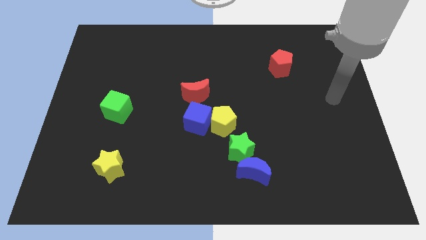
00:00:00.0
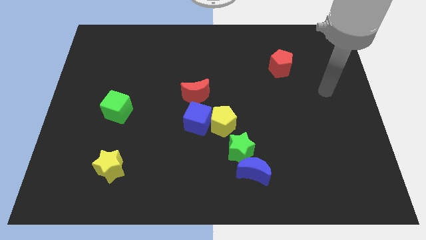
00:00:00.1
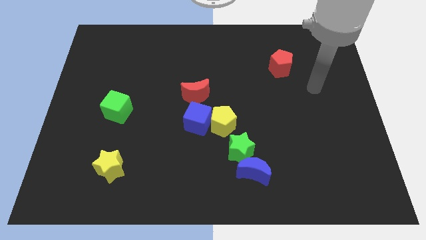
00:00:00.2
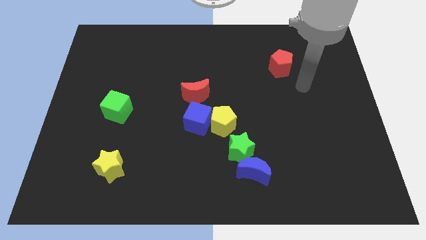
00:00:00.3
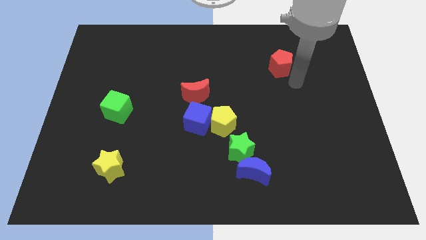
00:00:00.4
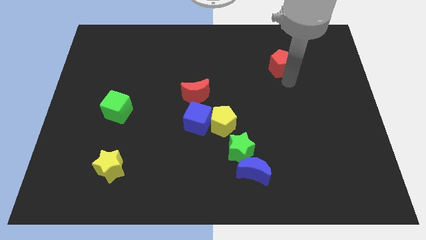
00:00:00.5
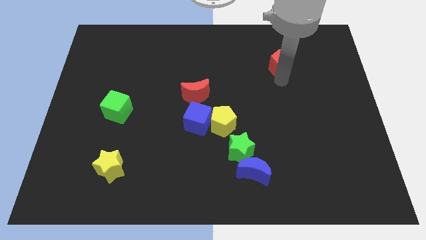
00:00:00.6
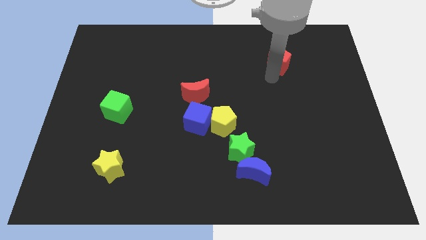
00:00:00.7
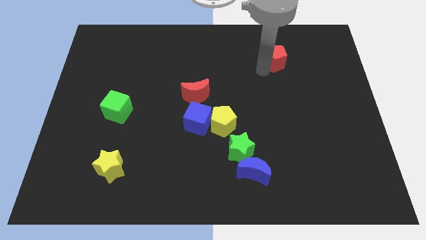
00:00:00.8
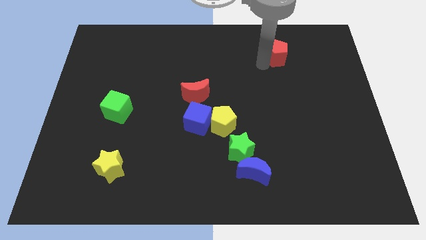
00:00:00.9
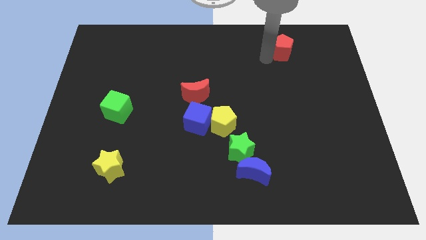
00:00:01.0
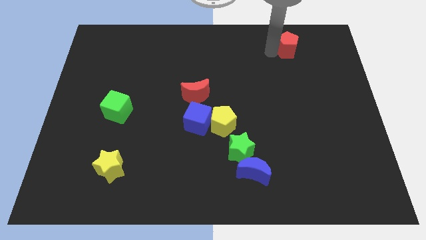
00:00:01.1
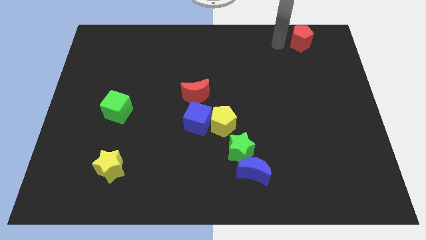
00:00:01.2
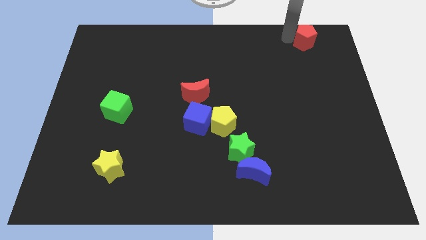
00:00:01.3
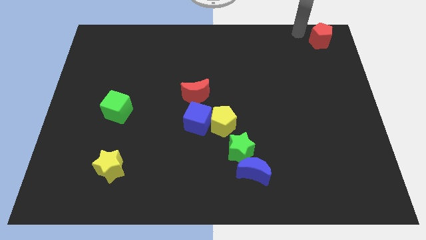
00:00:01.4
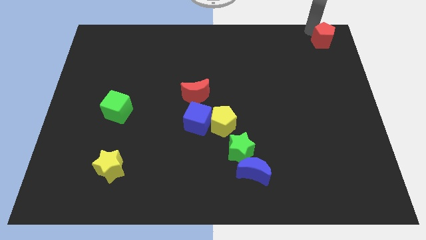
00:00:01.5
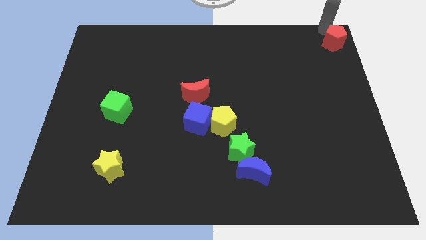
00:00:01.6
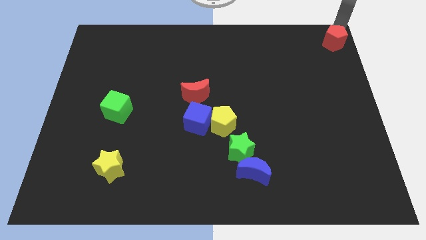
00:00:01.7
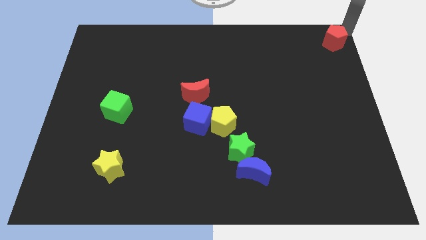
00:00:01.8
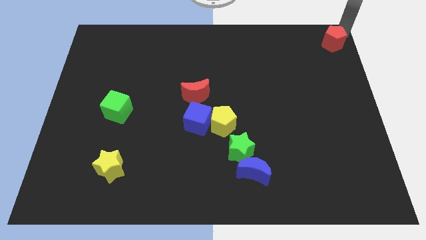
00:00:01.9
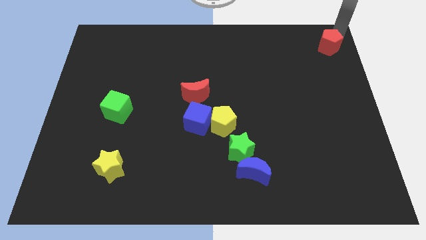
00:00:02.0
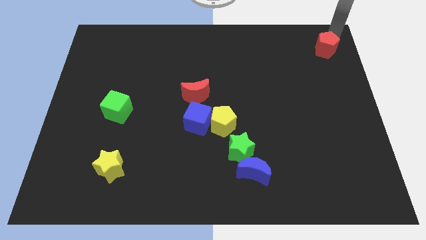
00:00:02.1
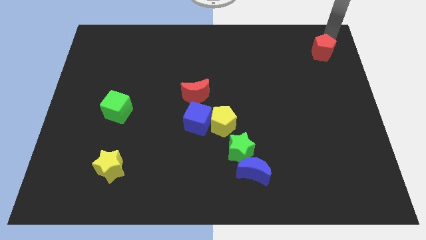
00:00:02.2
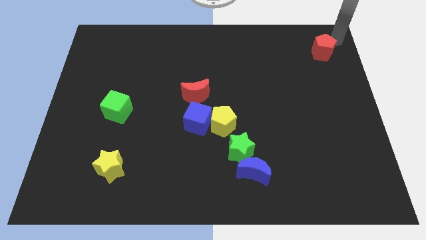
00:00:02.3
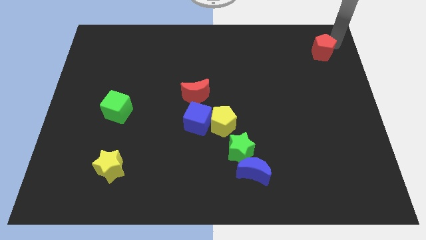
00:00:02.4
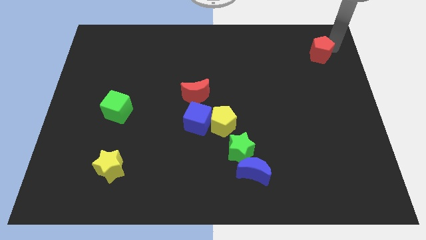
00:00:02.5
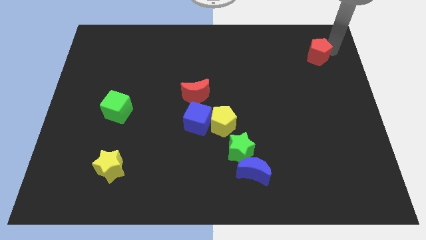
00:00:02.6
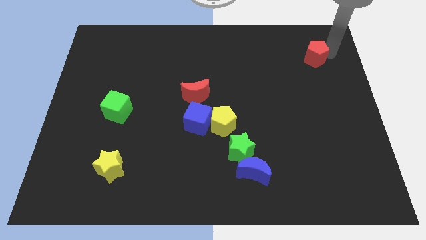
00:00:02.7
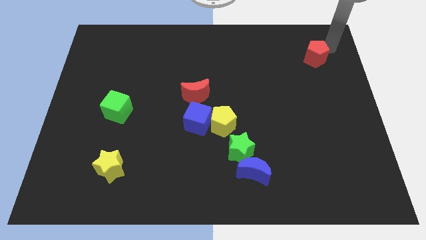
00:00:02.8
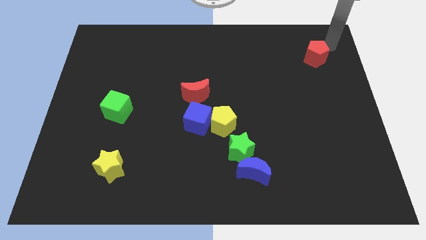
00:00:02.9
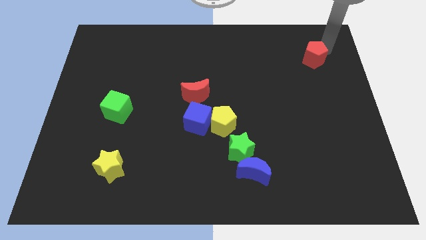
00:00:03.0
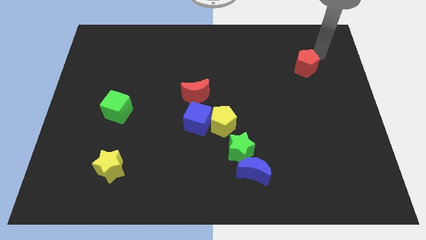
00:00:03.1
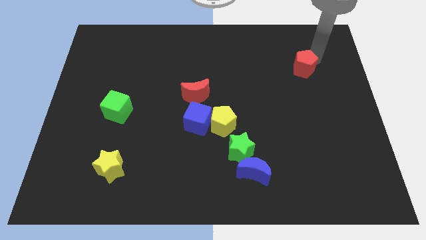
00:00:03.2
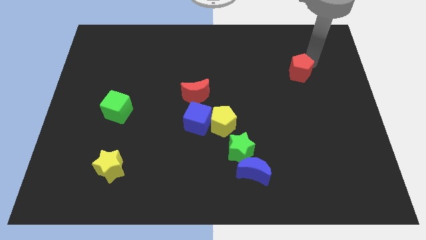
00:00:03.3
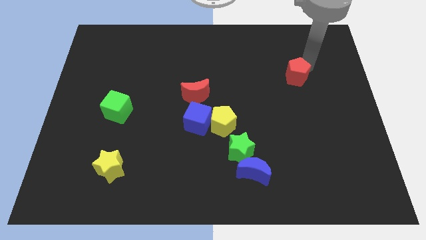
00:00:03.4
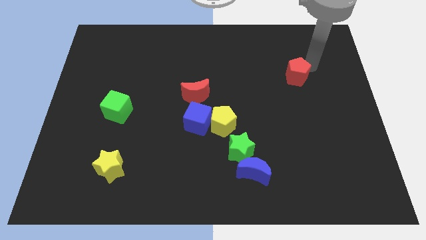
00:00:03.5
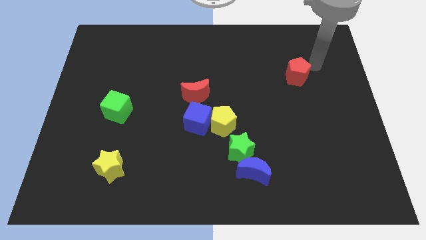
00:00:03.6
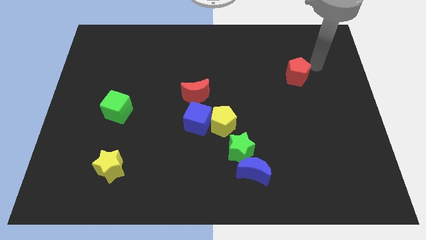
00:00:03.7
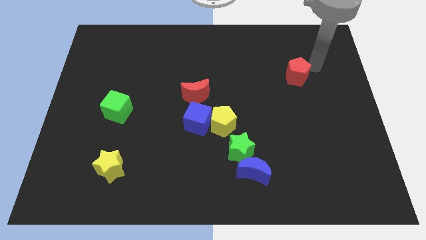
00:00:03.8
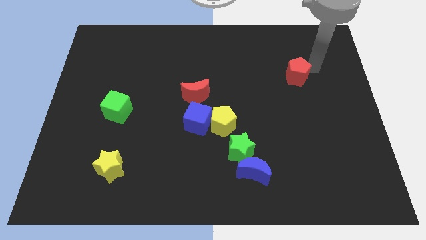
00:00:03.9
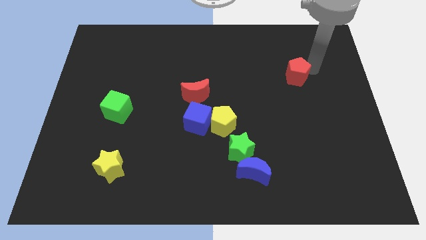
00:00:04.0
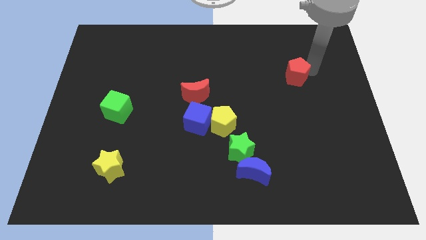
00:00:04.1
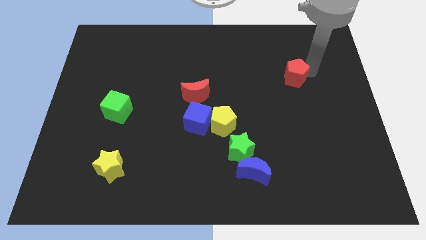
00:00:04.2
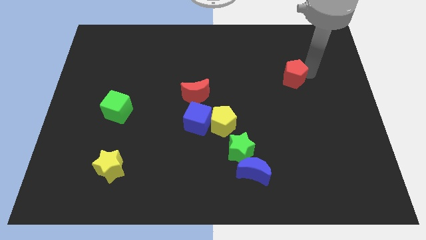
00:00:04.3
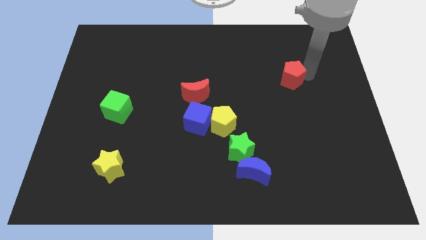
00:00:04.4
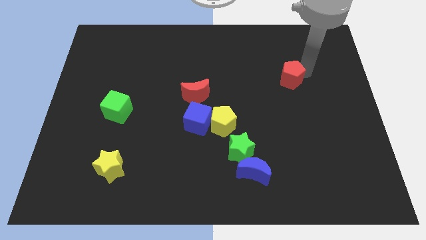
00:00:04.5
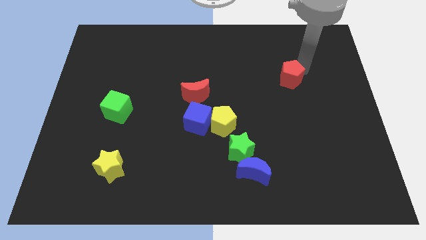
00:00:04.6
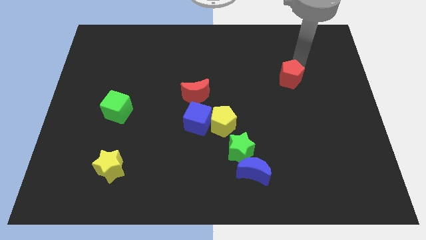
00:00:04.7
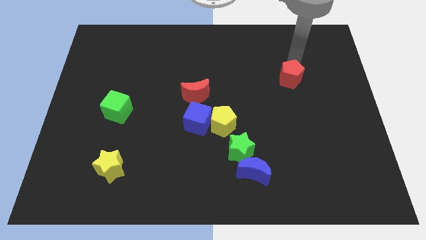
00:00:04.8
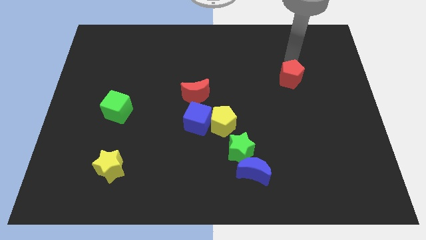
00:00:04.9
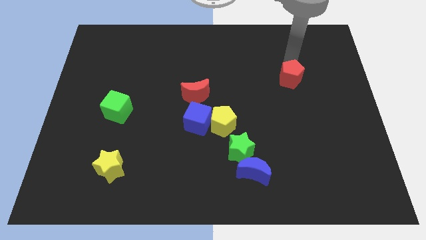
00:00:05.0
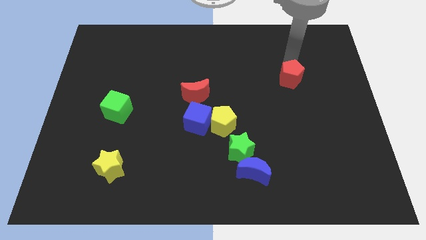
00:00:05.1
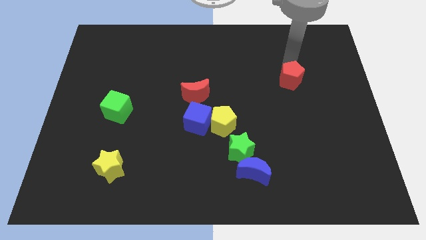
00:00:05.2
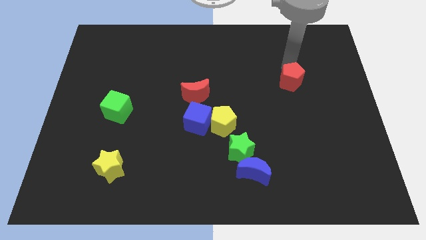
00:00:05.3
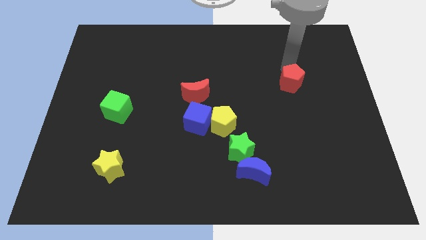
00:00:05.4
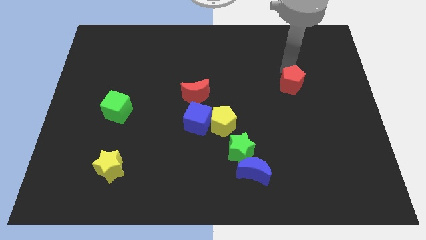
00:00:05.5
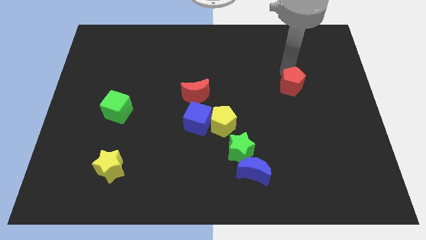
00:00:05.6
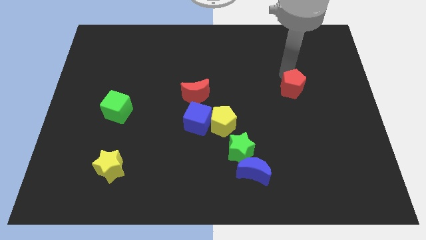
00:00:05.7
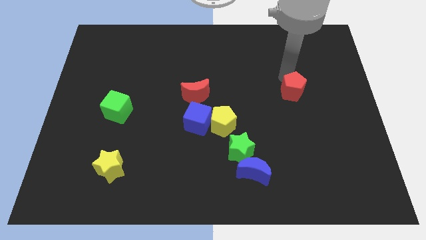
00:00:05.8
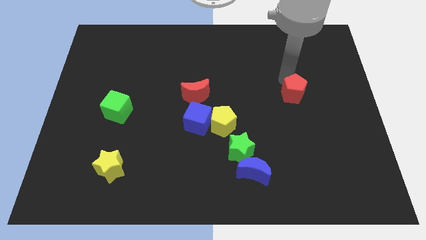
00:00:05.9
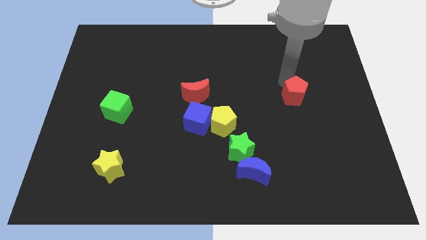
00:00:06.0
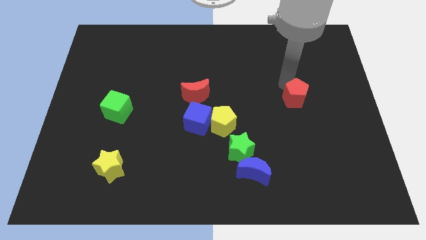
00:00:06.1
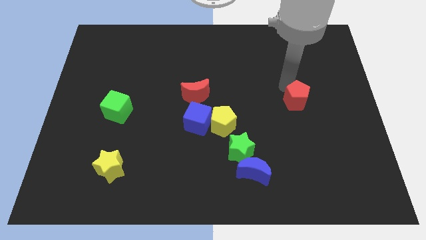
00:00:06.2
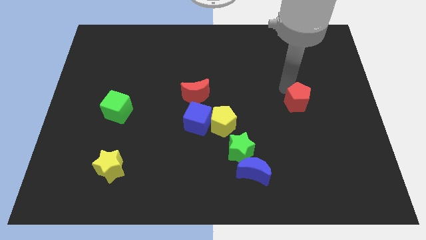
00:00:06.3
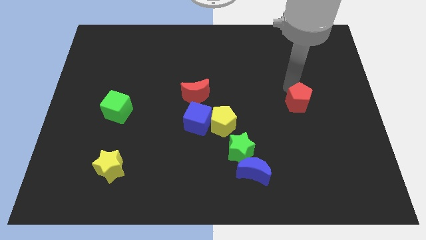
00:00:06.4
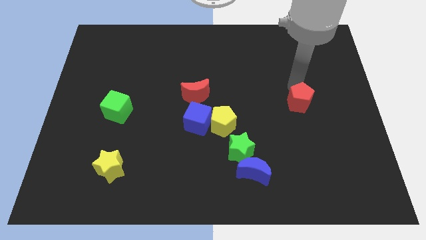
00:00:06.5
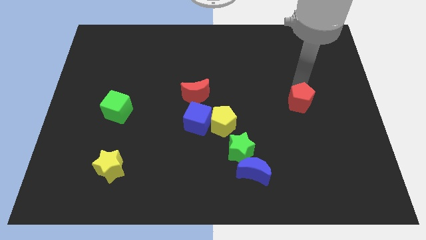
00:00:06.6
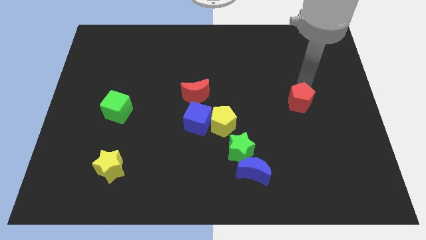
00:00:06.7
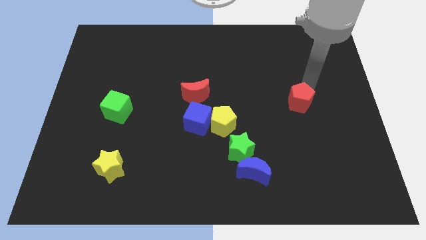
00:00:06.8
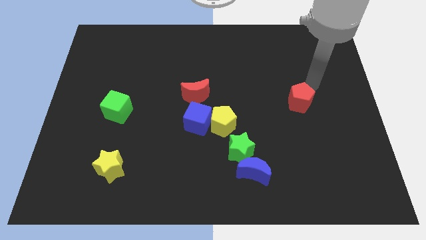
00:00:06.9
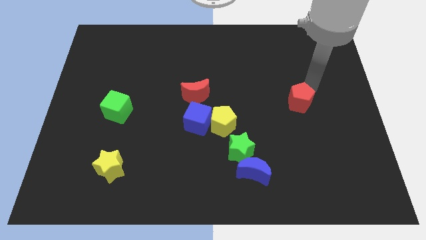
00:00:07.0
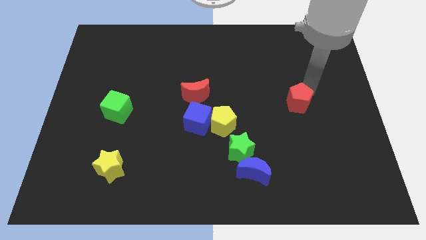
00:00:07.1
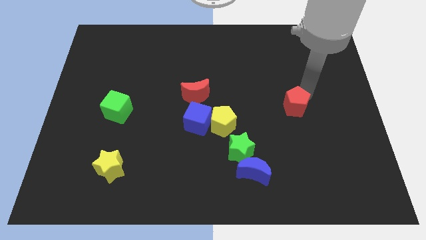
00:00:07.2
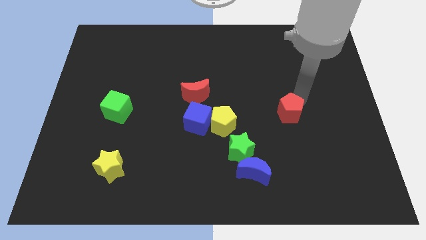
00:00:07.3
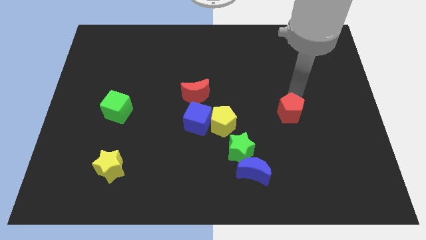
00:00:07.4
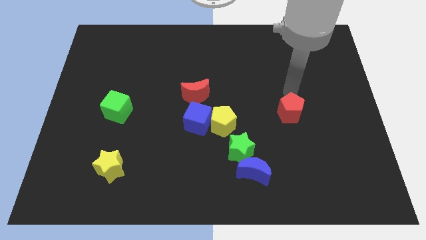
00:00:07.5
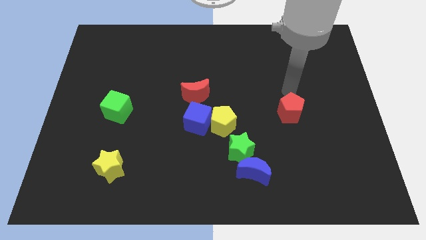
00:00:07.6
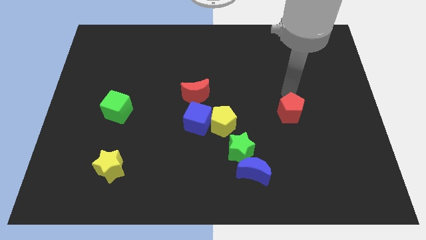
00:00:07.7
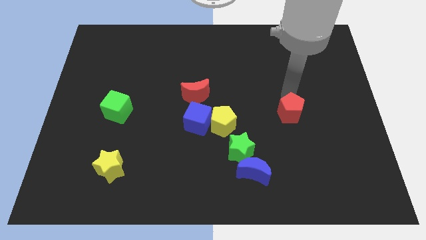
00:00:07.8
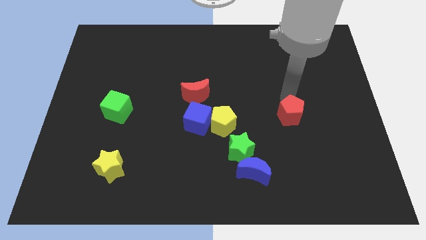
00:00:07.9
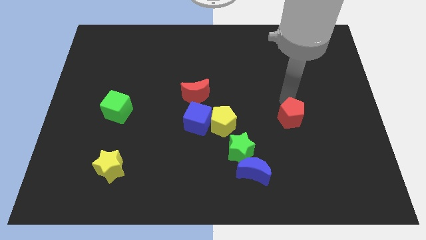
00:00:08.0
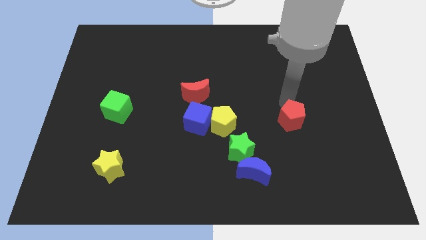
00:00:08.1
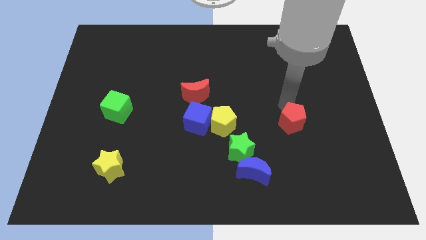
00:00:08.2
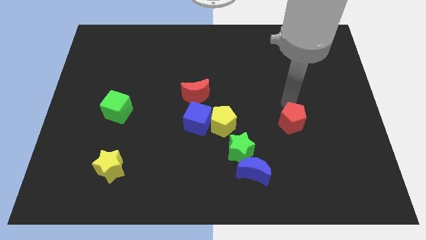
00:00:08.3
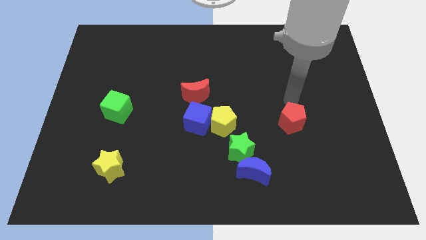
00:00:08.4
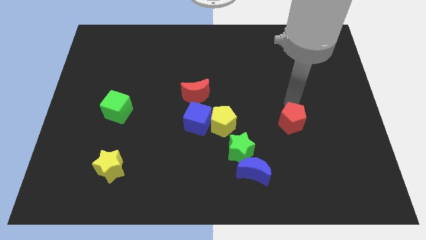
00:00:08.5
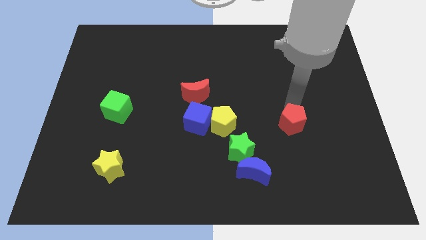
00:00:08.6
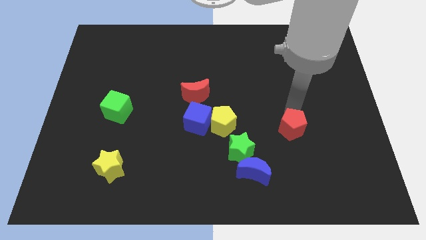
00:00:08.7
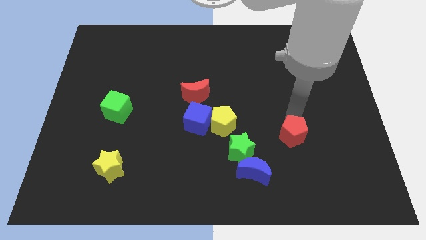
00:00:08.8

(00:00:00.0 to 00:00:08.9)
move the red pentagon to the right of the green star
